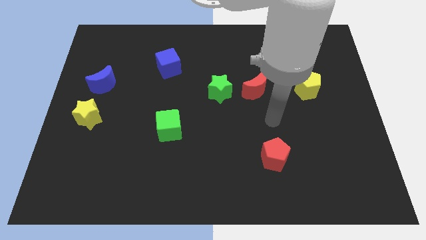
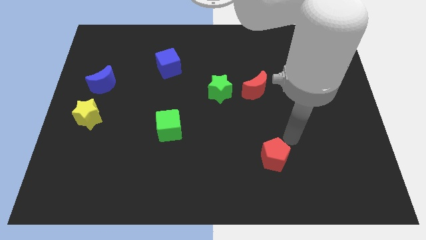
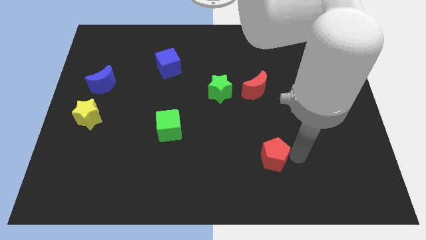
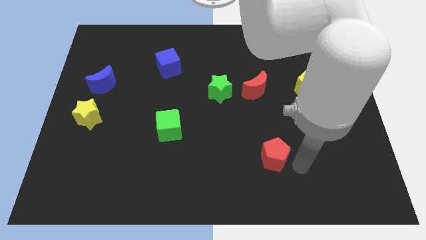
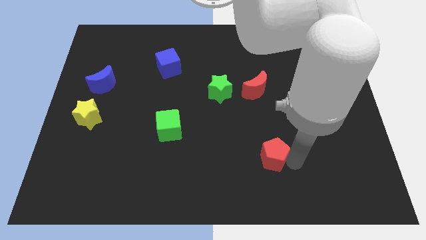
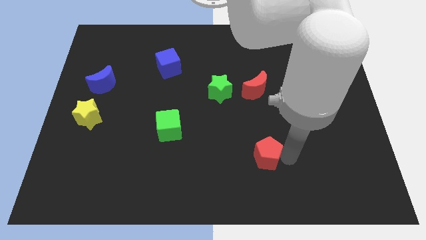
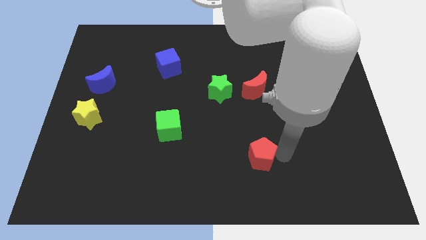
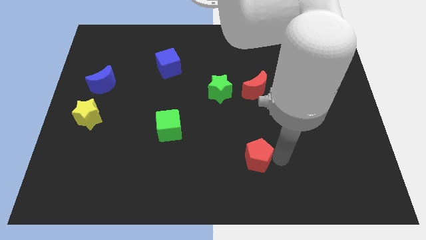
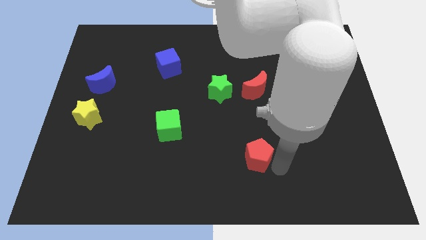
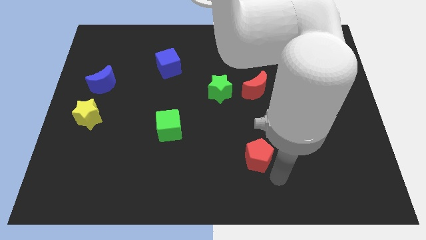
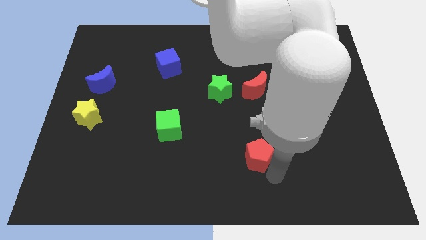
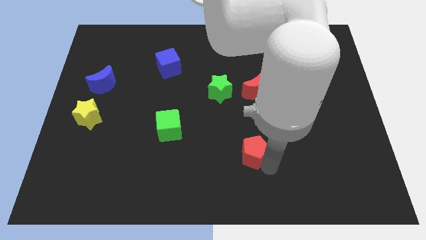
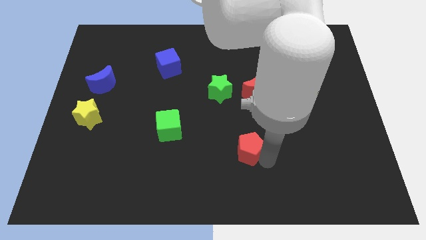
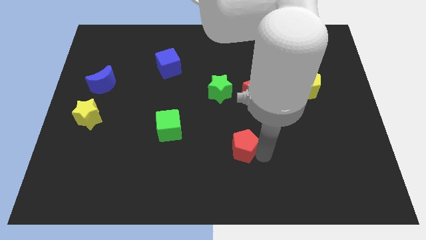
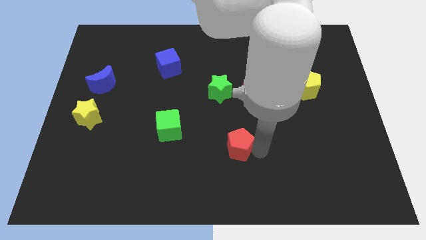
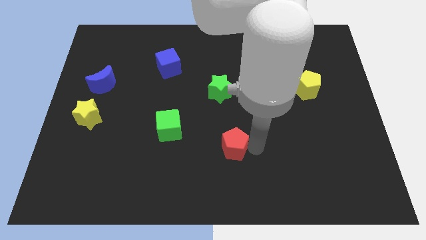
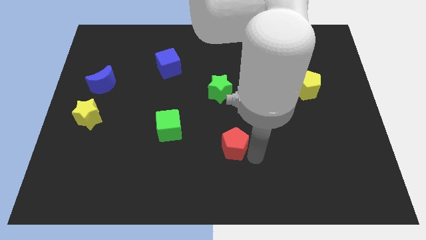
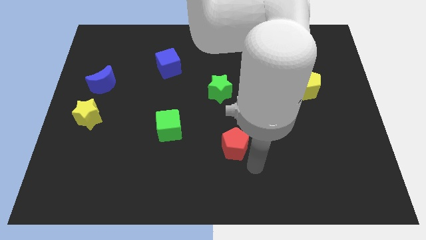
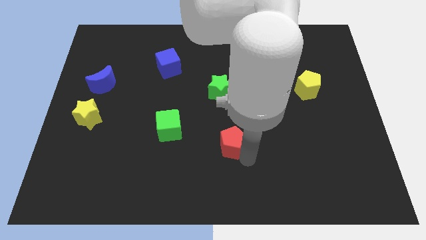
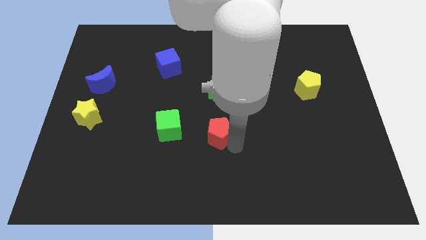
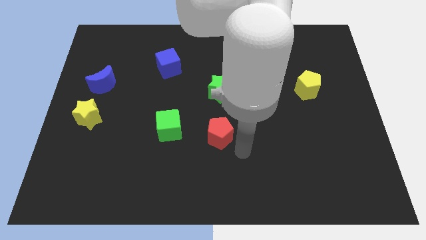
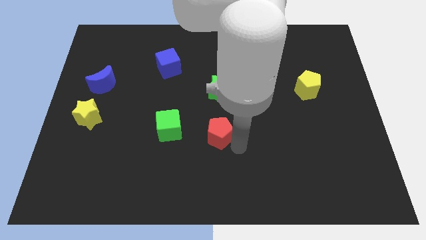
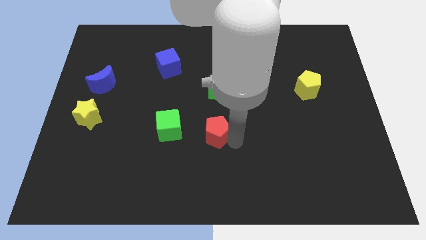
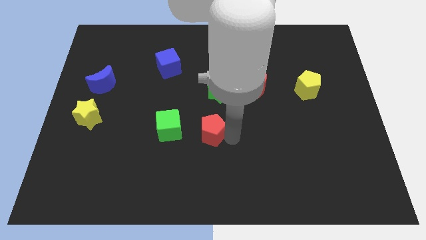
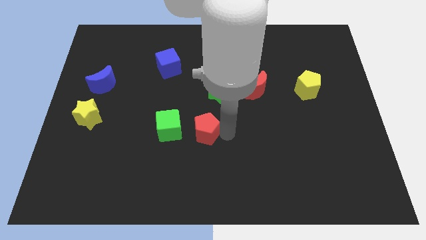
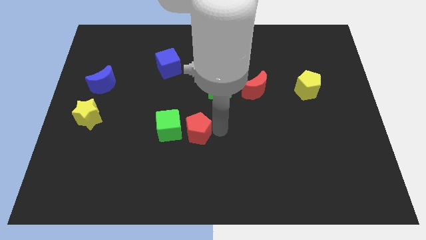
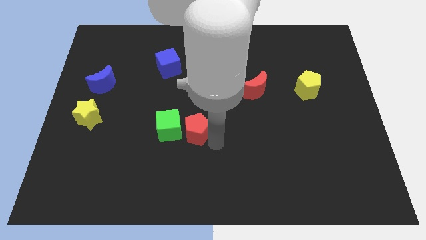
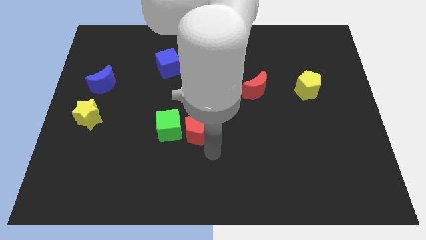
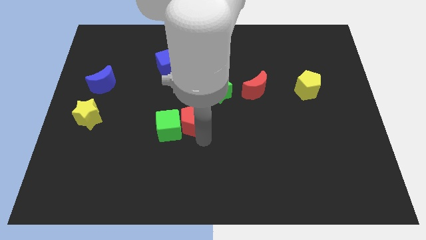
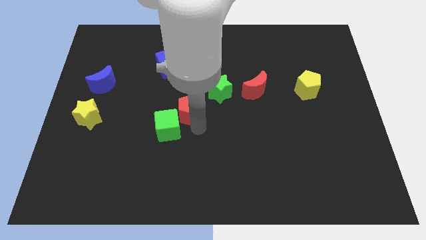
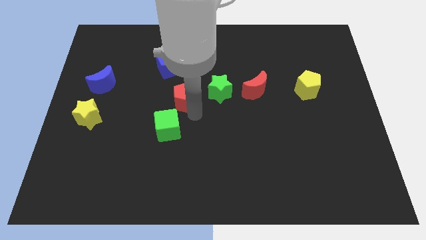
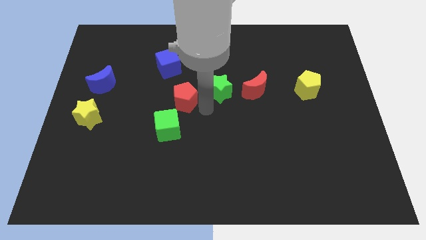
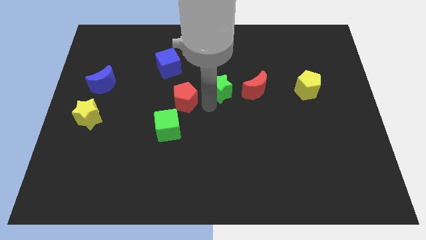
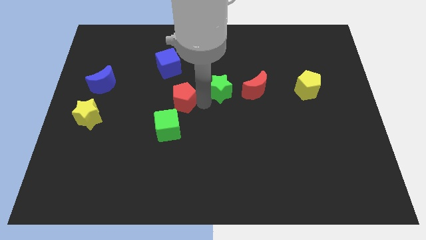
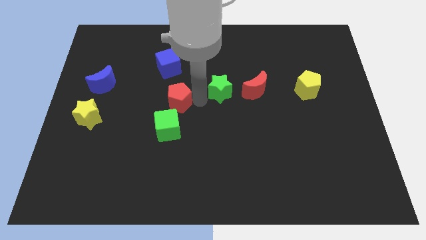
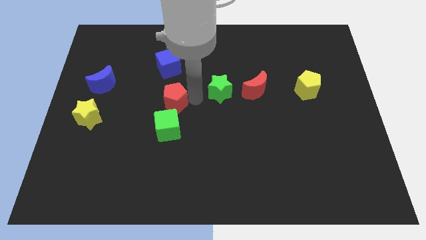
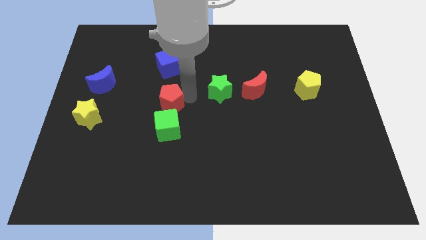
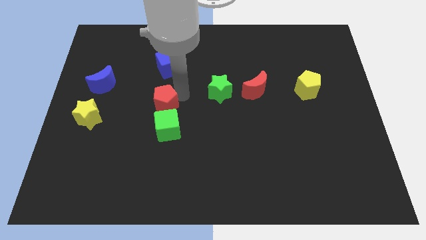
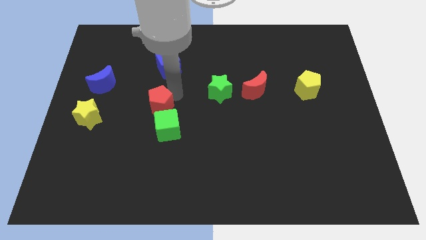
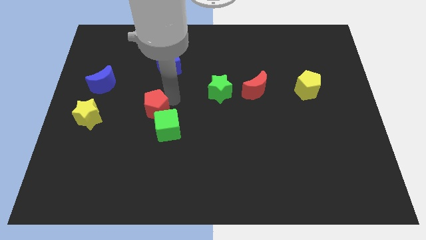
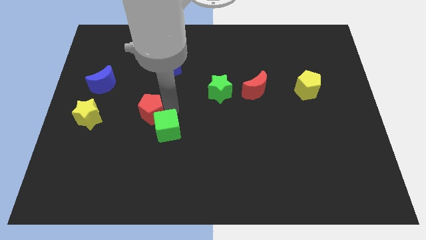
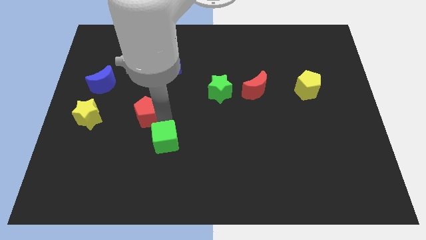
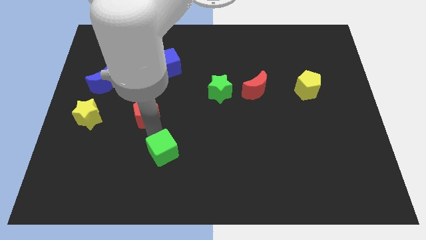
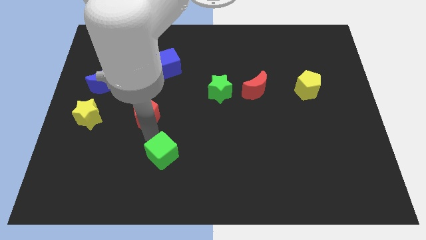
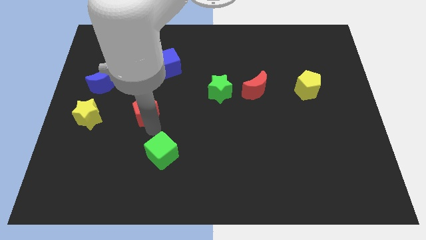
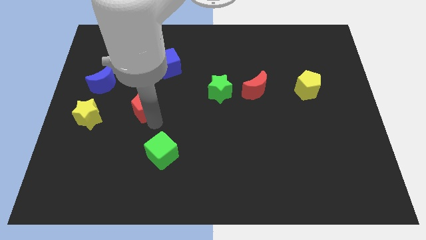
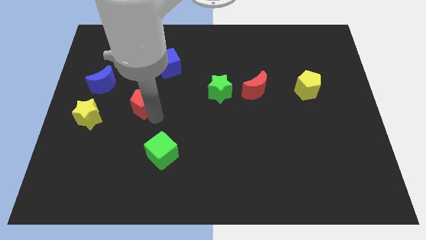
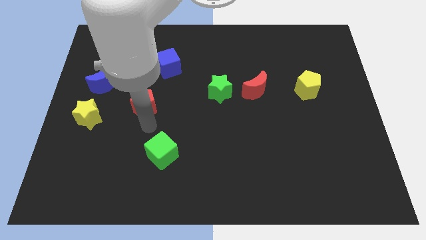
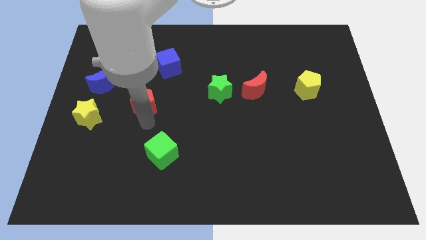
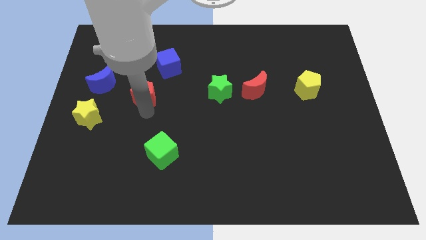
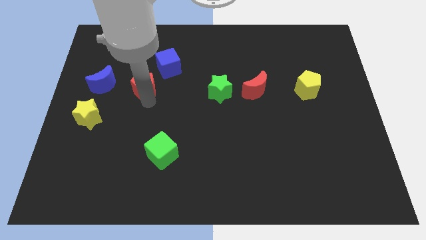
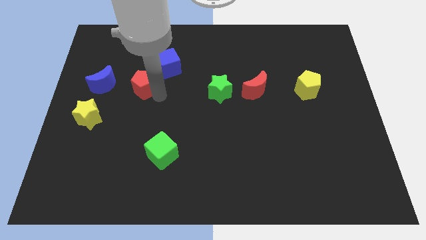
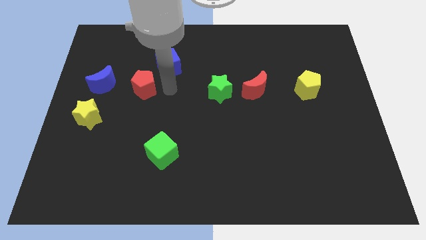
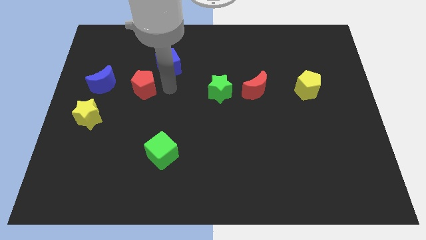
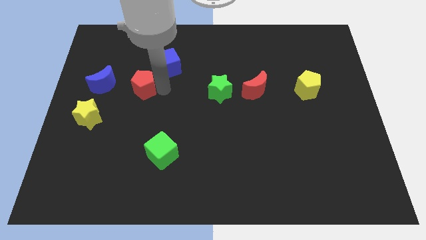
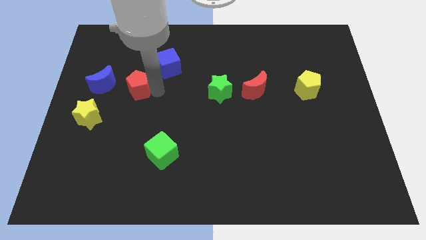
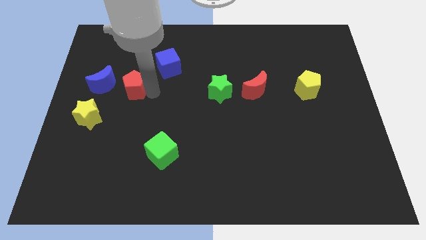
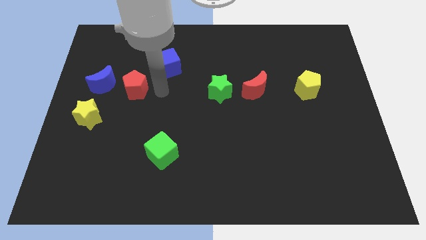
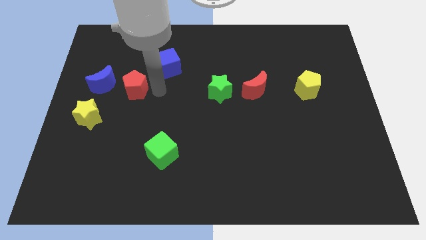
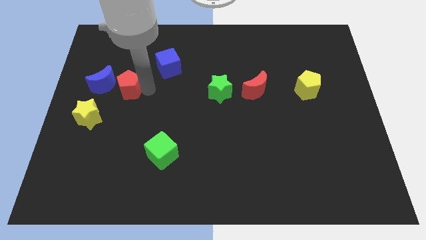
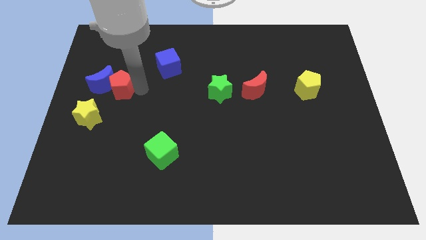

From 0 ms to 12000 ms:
put the red pentagon close to the blue moon

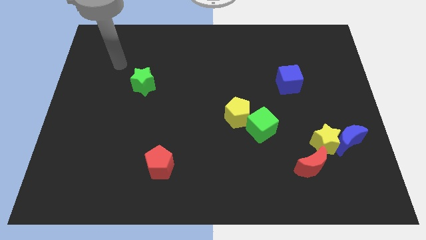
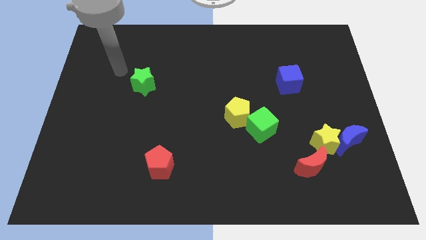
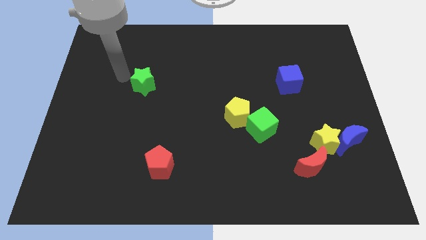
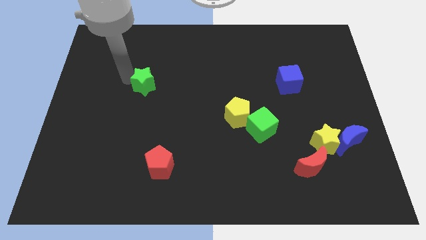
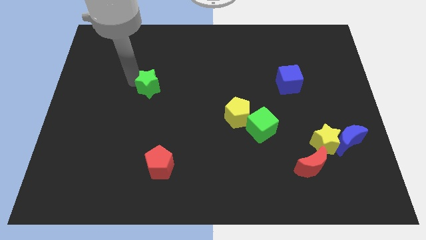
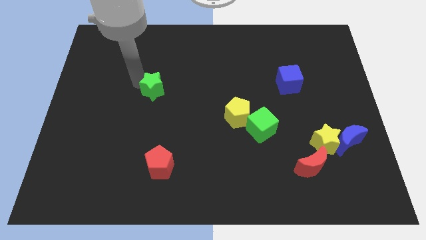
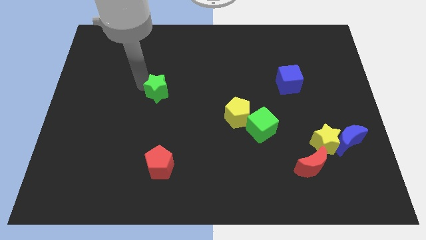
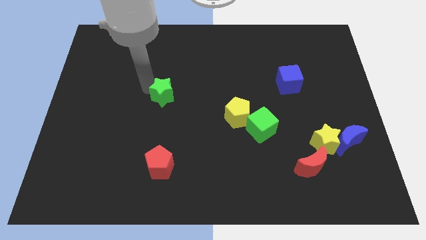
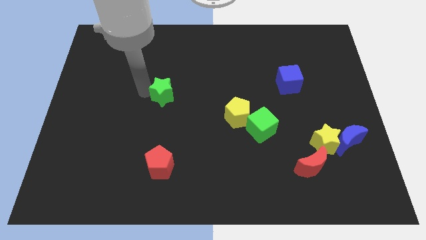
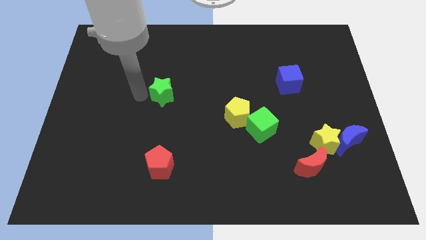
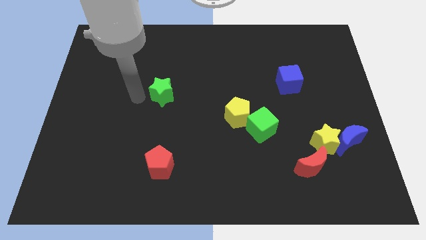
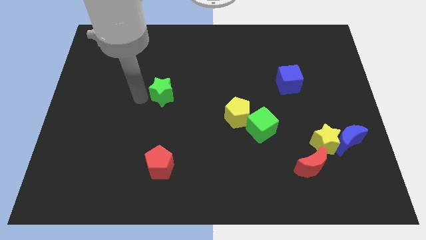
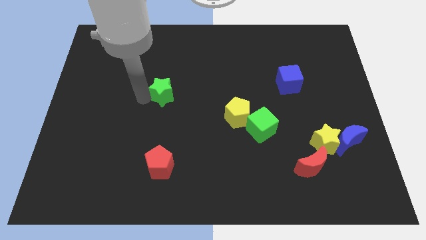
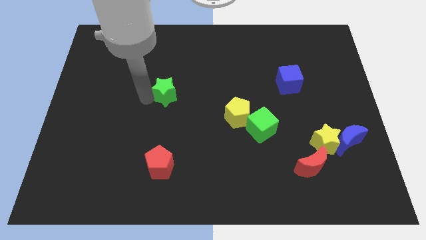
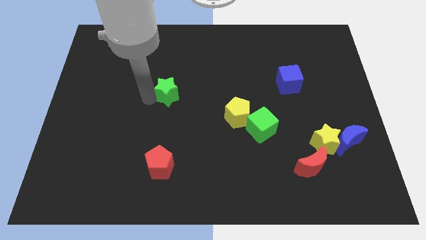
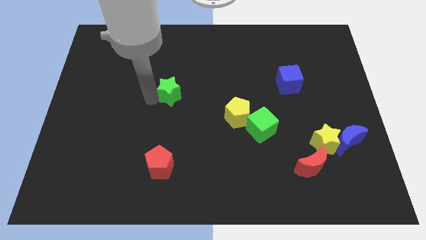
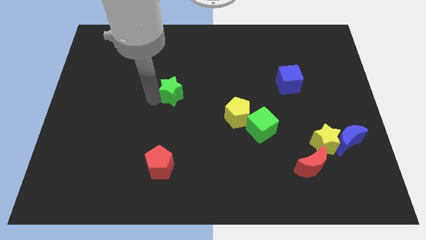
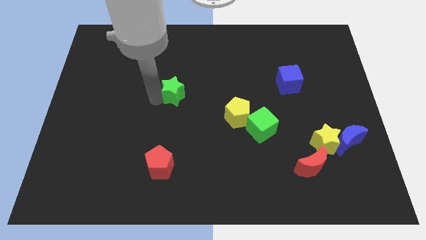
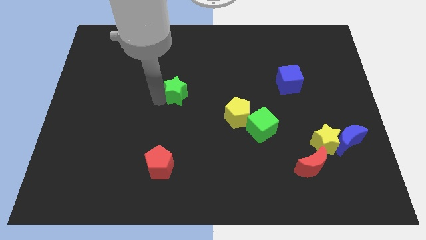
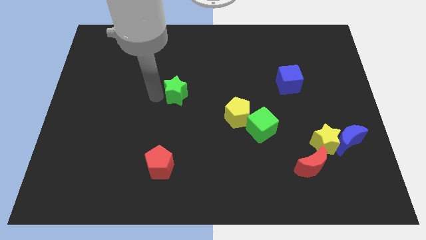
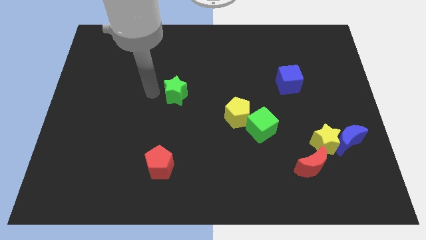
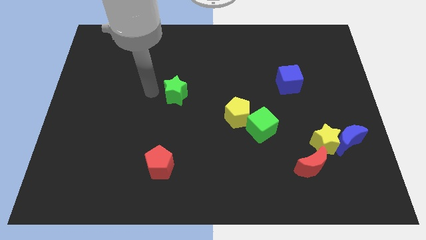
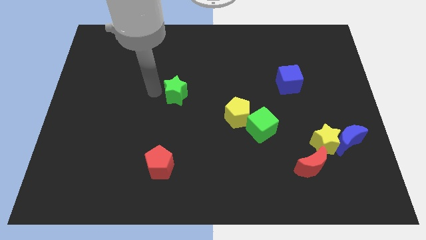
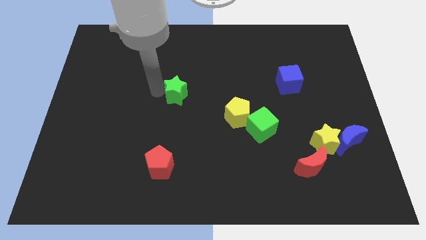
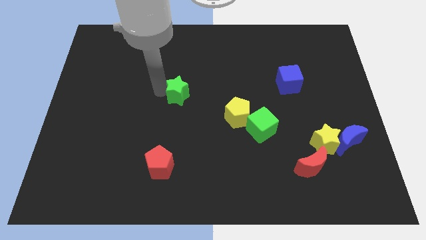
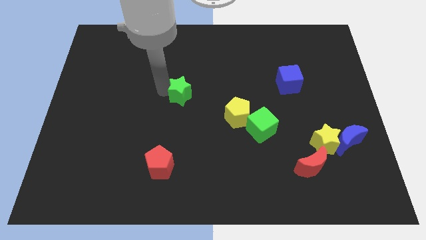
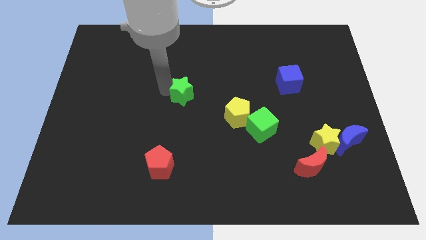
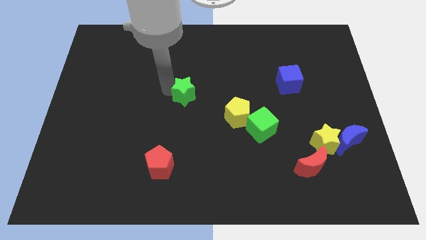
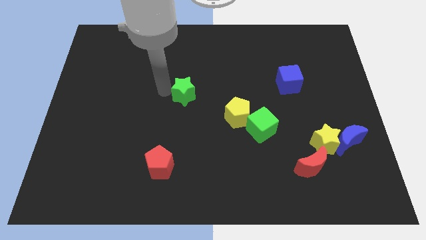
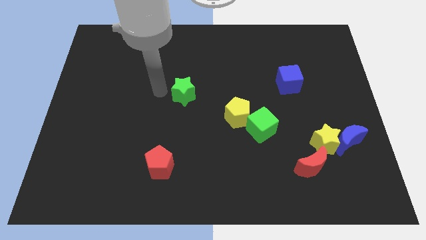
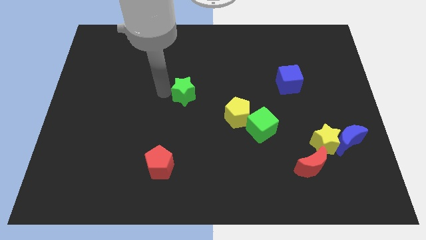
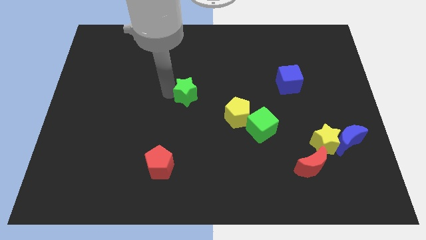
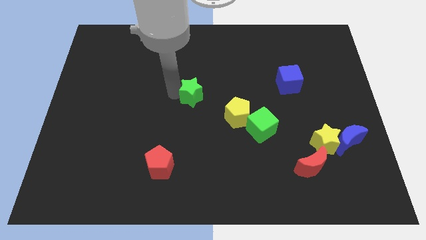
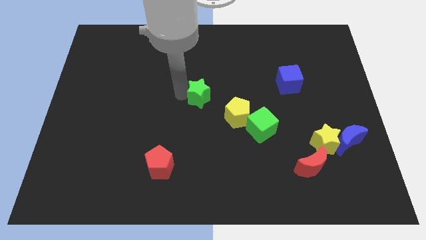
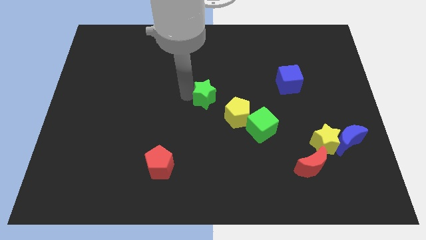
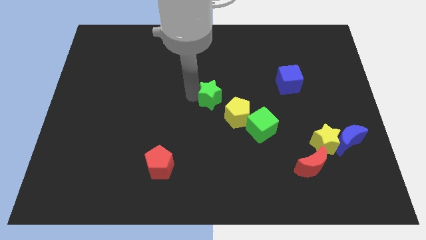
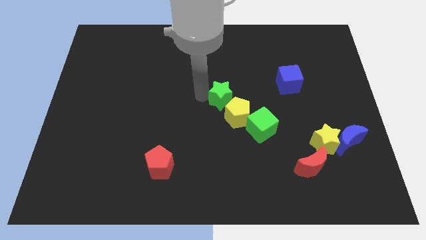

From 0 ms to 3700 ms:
put the green star to the yellow pentagon
